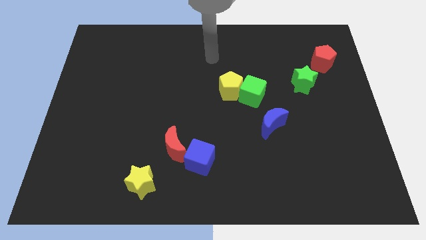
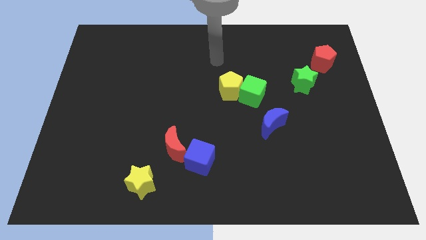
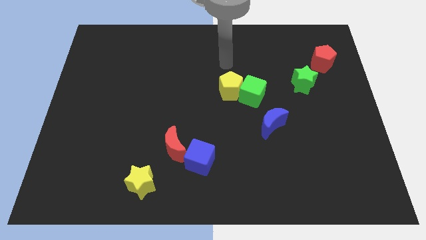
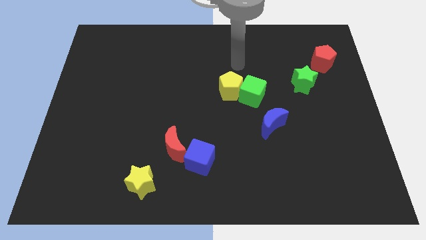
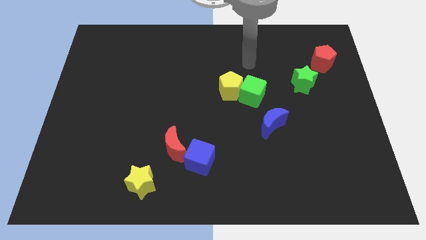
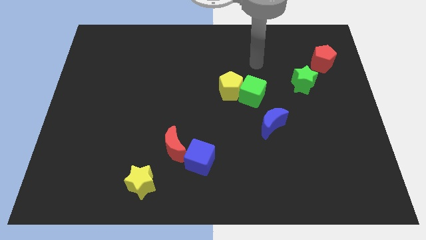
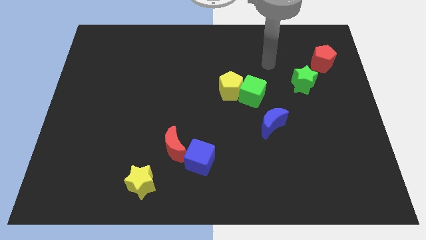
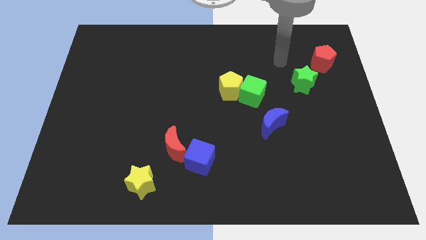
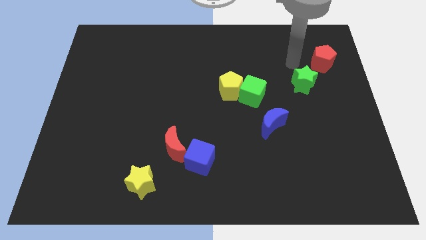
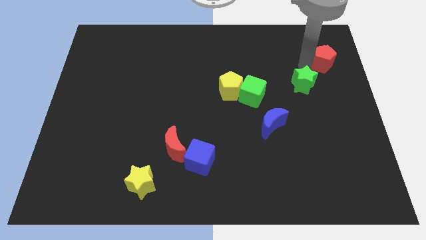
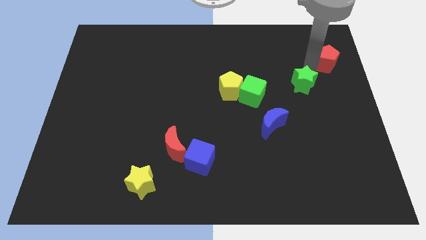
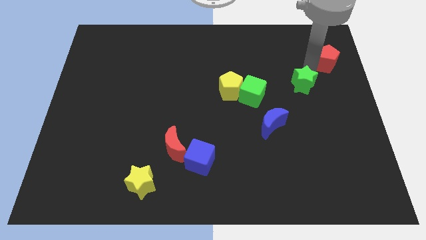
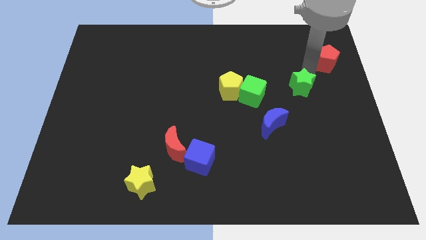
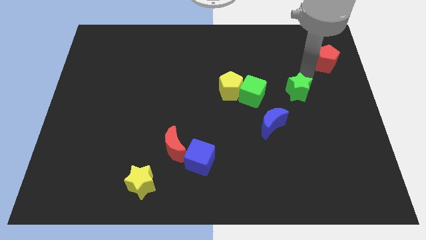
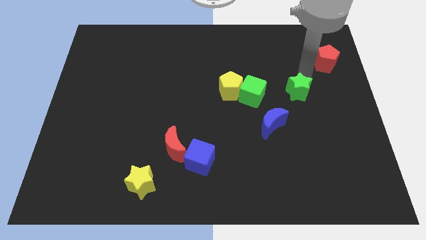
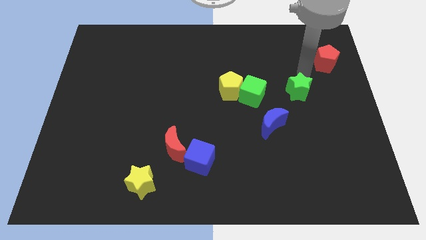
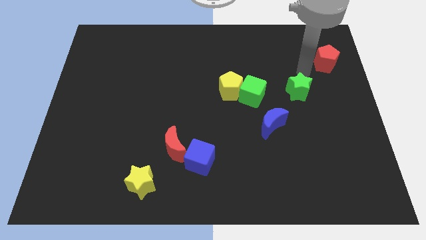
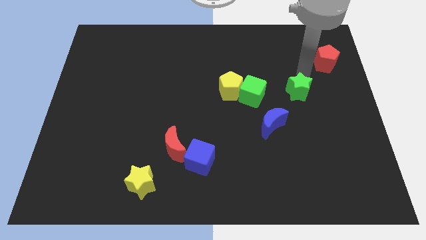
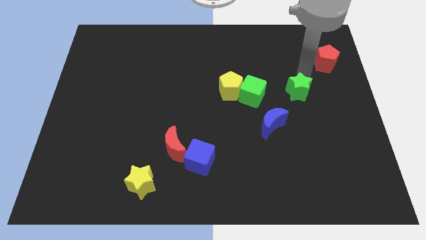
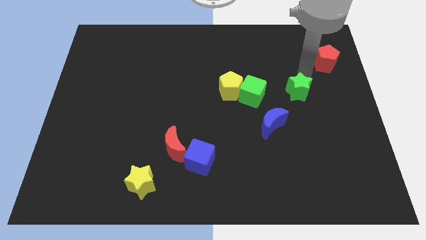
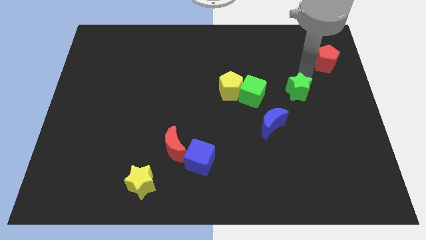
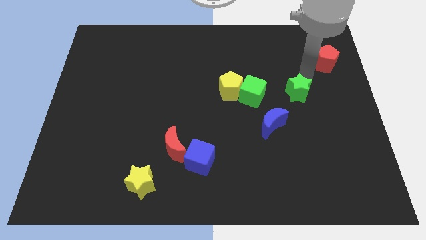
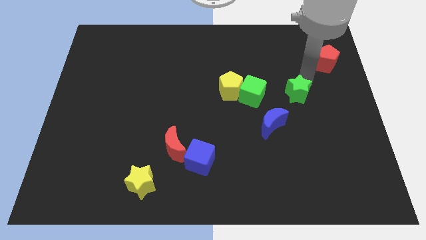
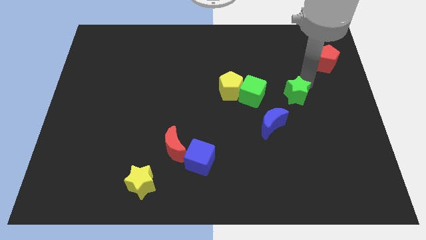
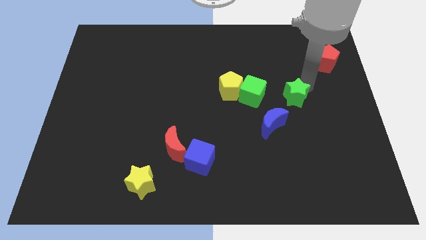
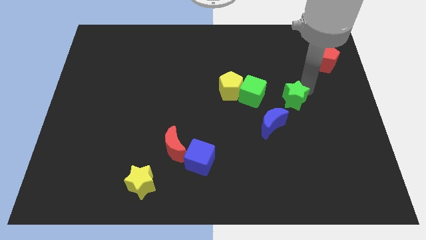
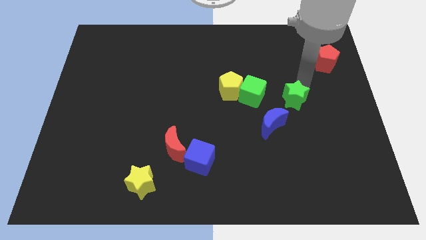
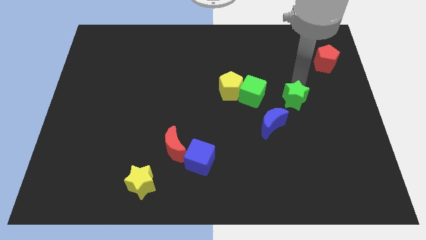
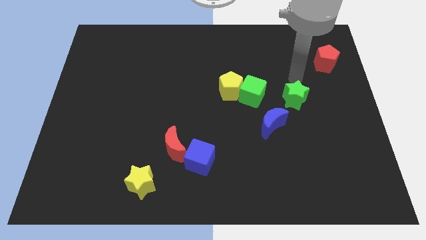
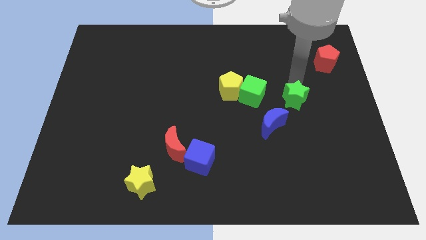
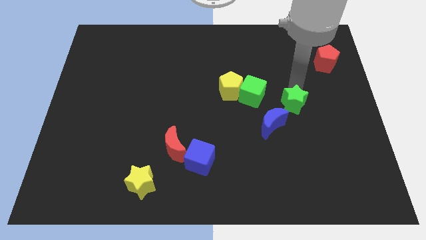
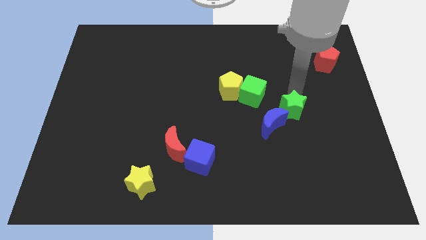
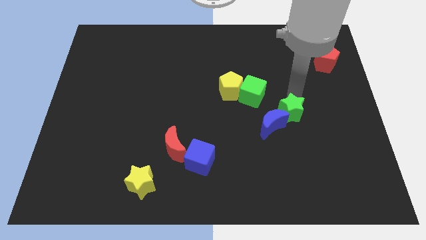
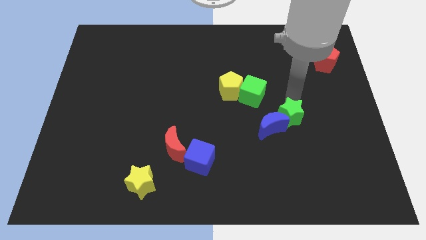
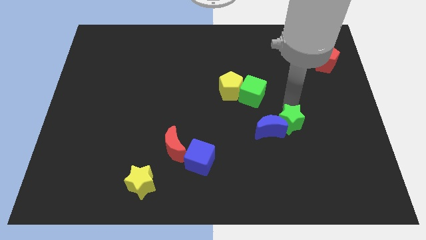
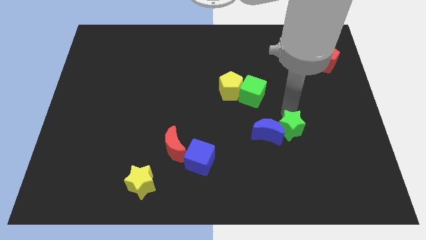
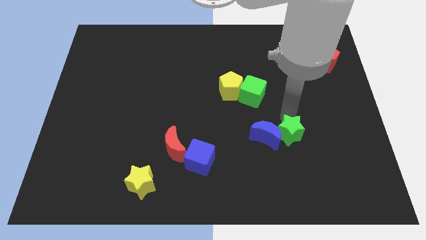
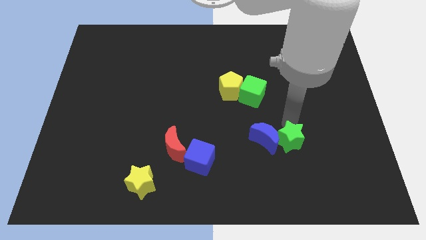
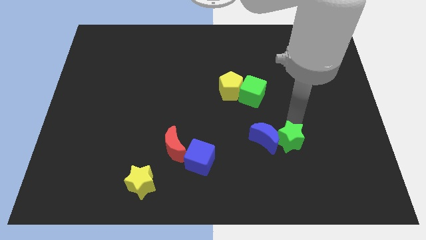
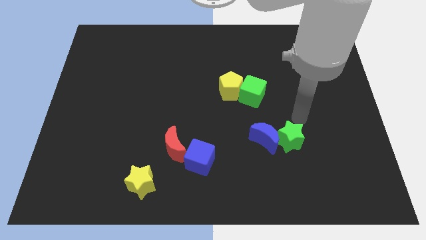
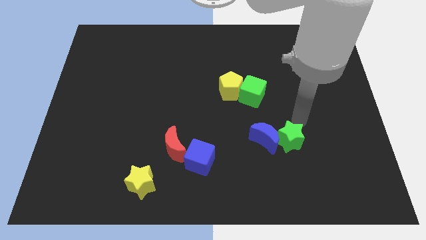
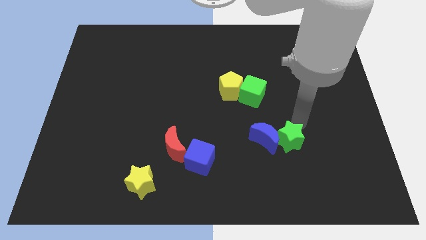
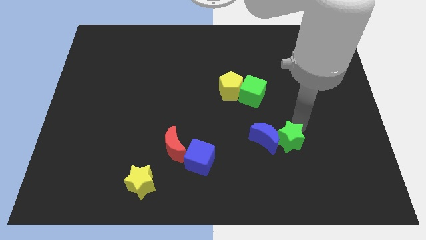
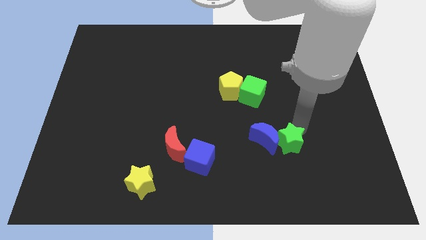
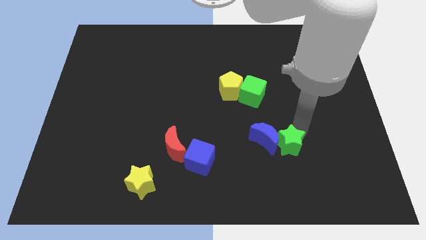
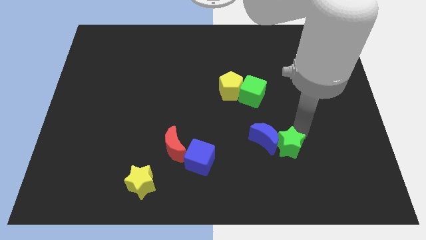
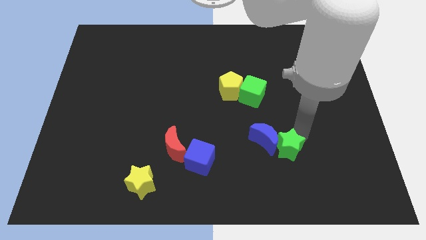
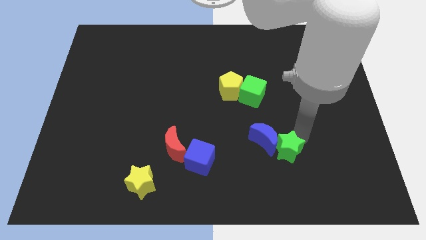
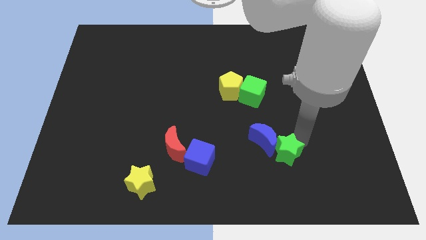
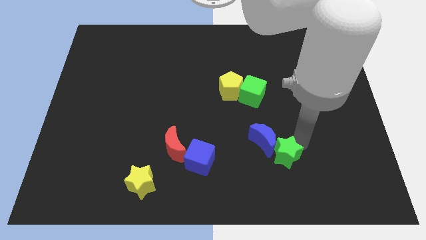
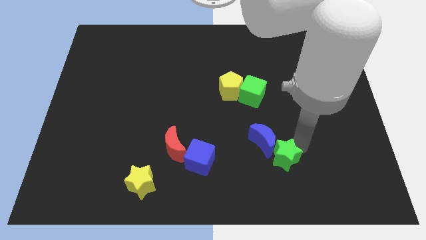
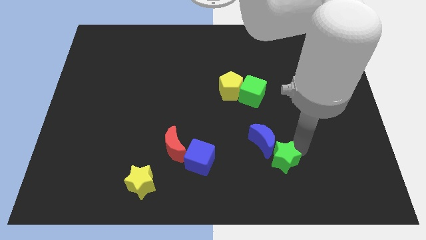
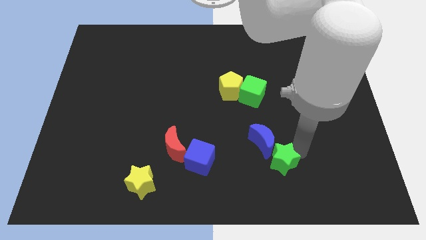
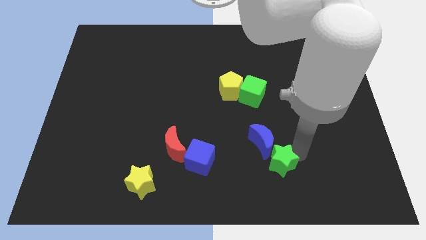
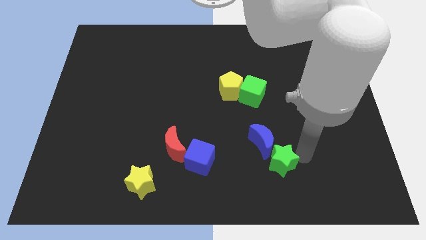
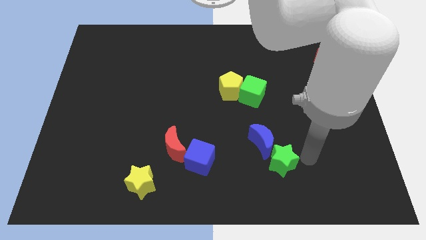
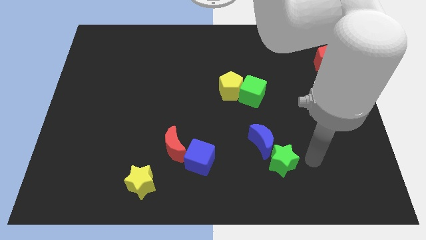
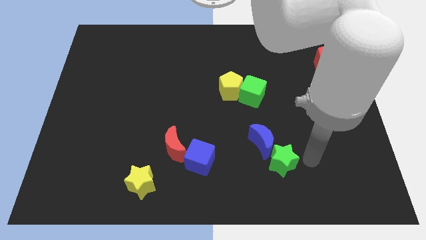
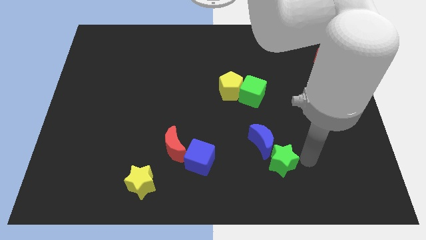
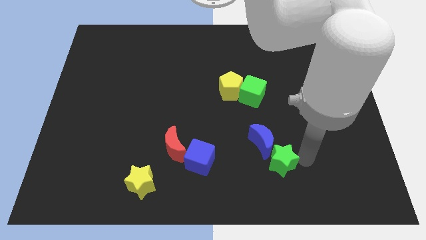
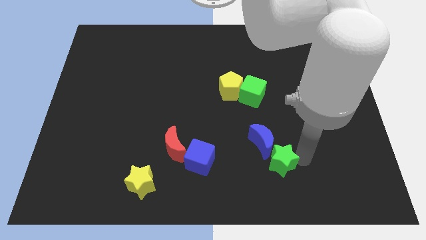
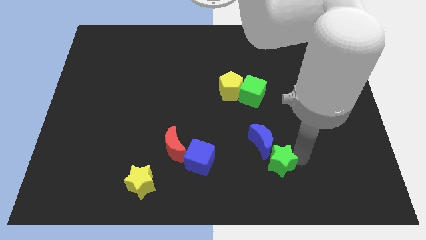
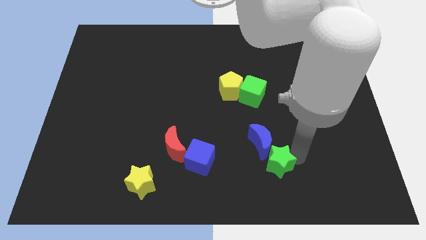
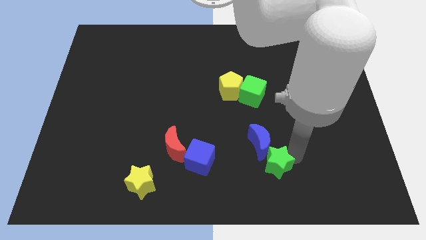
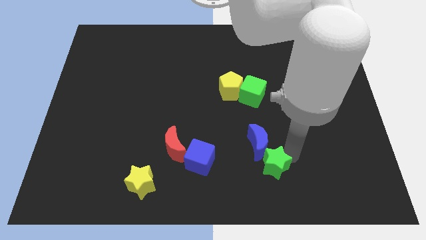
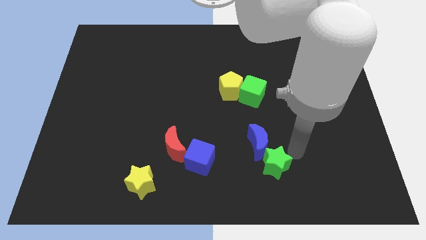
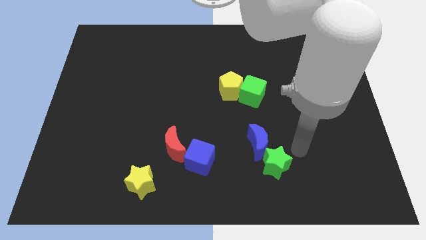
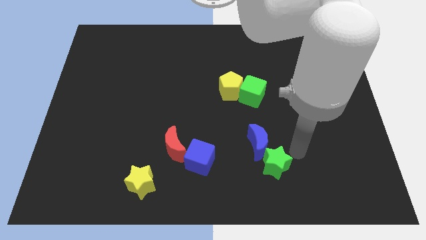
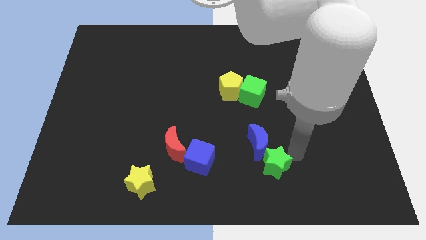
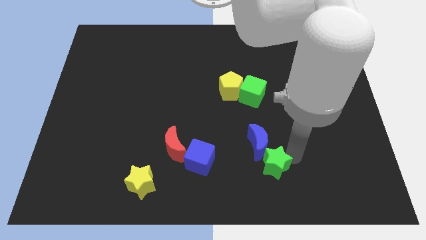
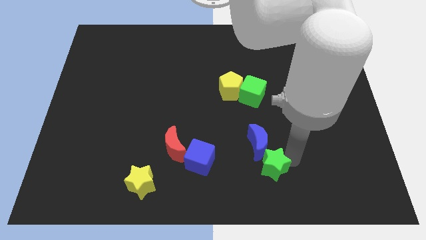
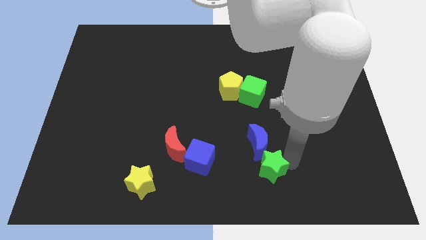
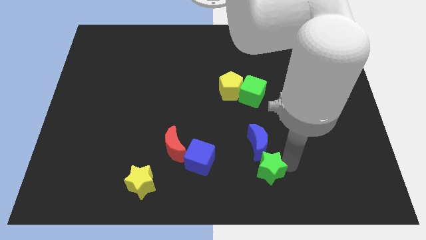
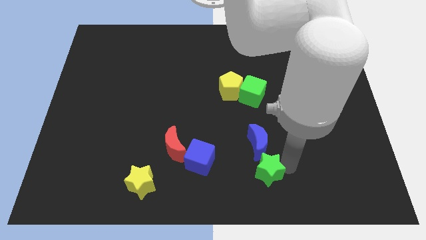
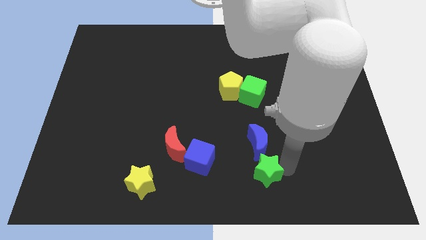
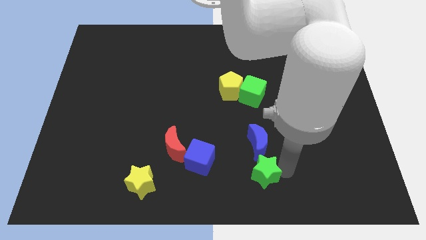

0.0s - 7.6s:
put the green star to the bottom
